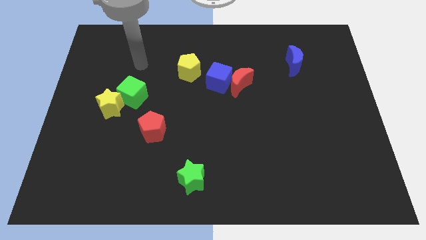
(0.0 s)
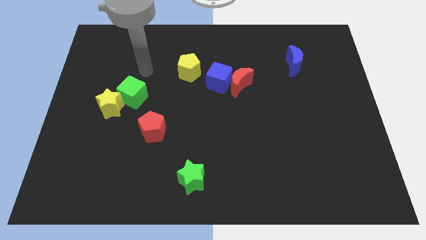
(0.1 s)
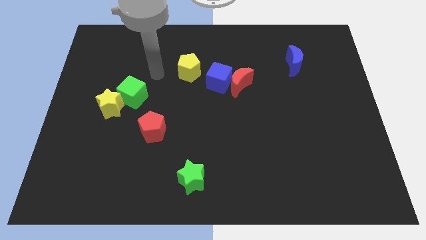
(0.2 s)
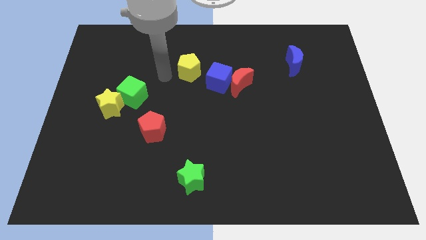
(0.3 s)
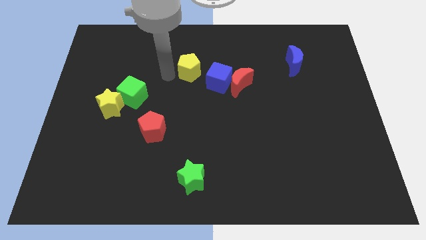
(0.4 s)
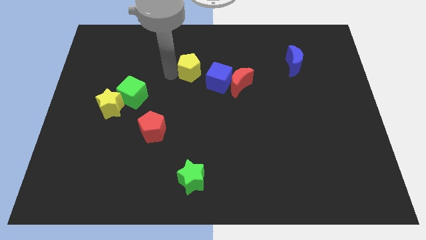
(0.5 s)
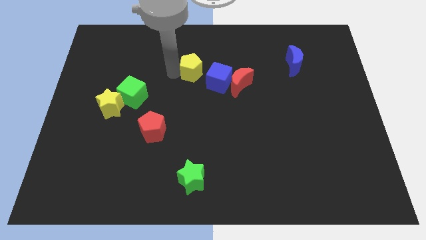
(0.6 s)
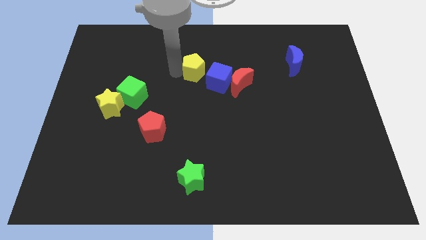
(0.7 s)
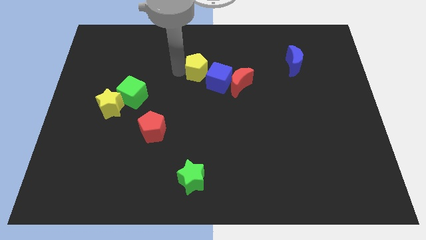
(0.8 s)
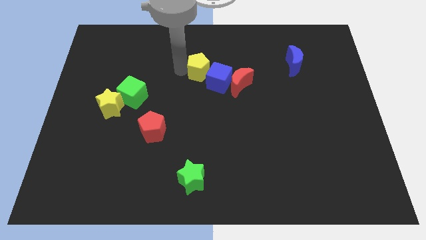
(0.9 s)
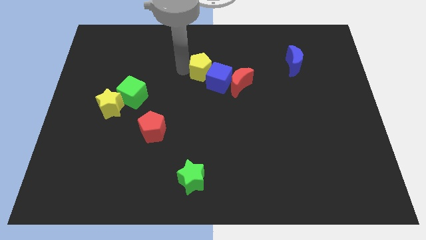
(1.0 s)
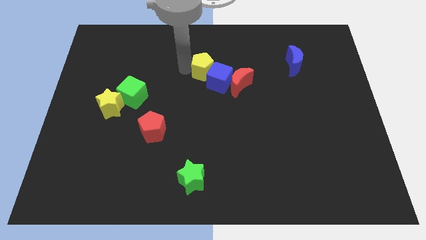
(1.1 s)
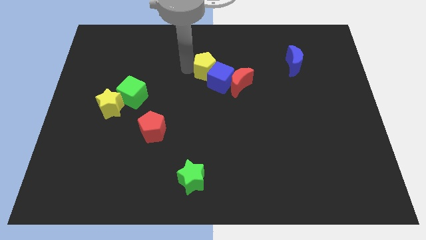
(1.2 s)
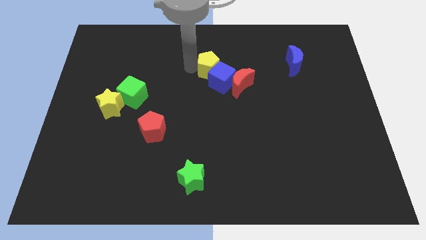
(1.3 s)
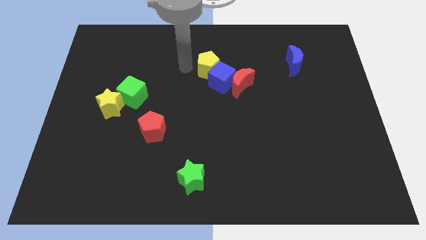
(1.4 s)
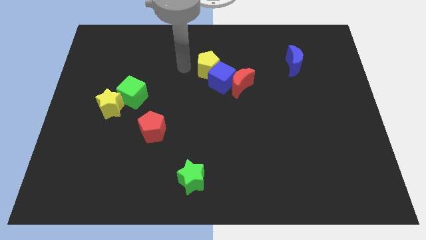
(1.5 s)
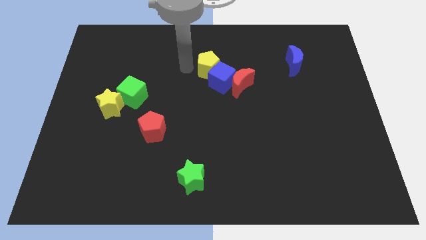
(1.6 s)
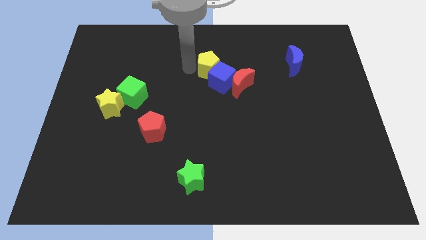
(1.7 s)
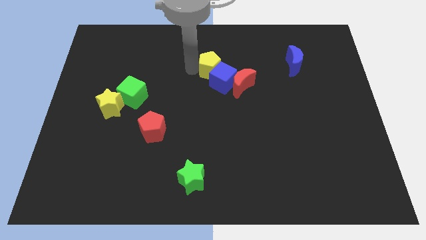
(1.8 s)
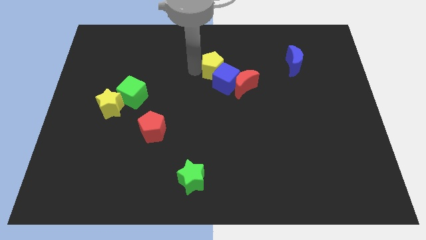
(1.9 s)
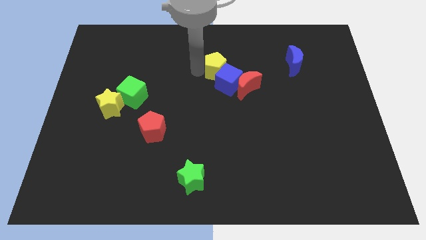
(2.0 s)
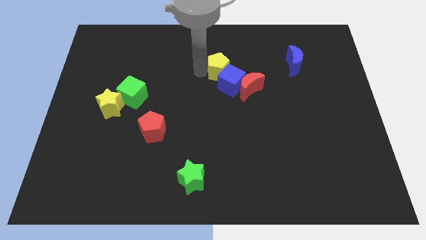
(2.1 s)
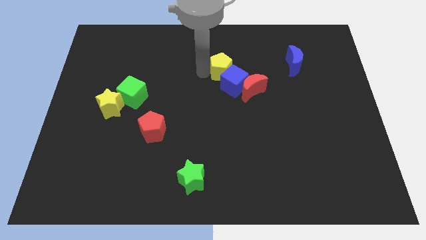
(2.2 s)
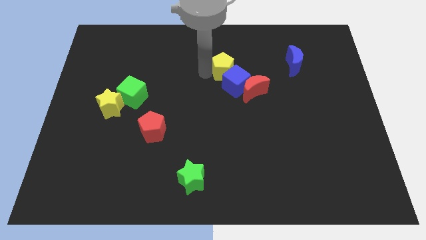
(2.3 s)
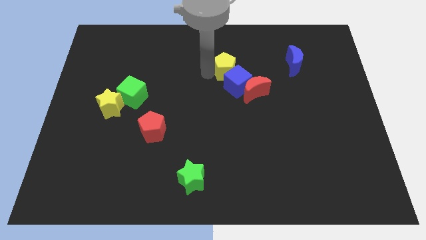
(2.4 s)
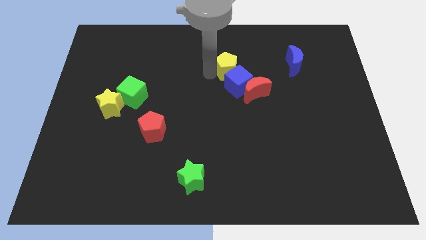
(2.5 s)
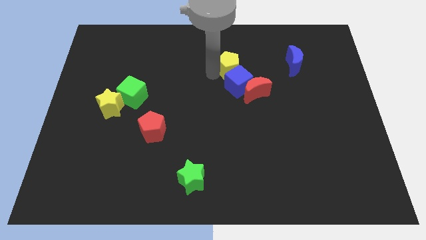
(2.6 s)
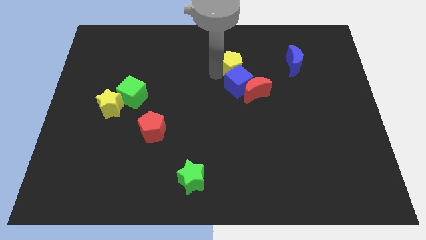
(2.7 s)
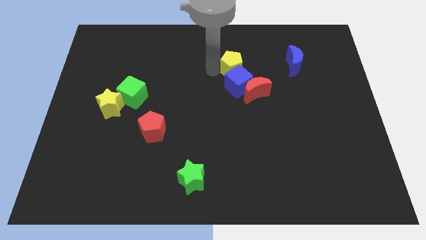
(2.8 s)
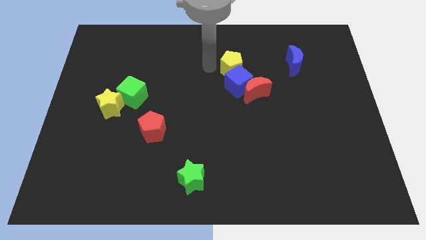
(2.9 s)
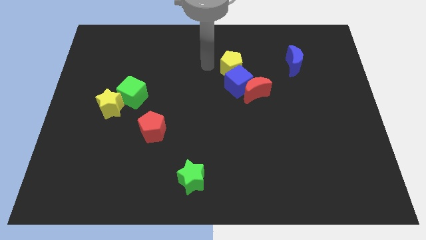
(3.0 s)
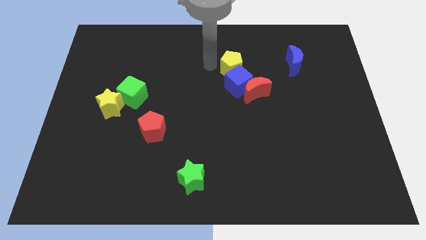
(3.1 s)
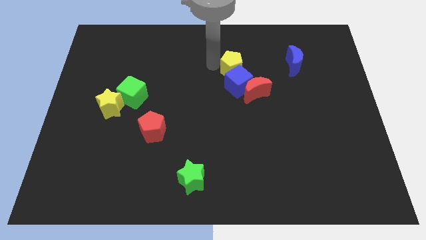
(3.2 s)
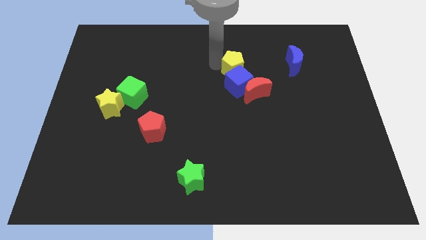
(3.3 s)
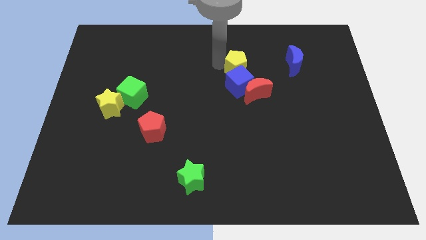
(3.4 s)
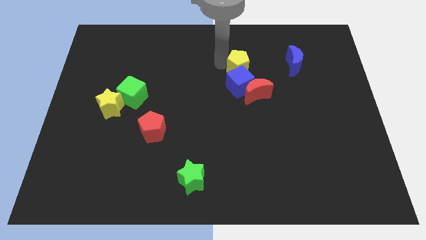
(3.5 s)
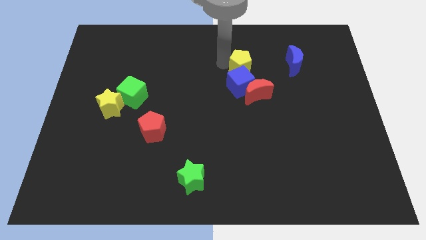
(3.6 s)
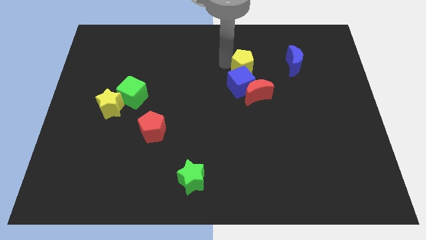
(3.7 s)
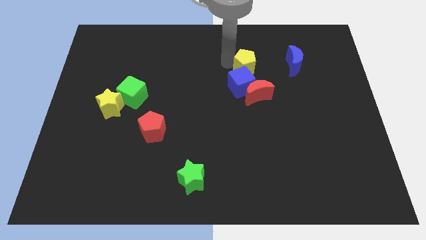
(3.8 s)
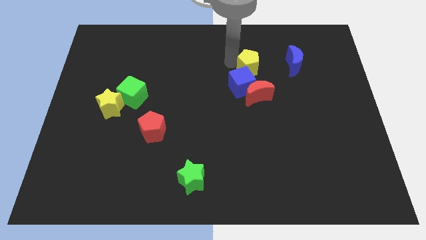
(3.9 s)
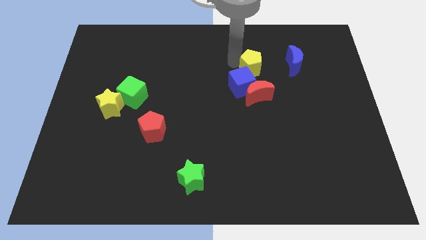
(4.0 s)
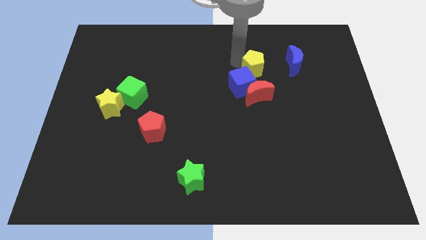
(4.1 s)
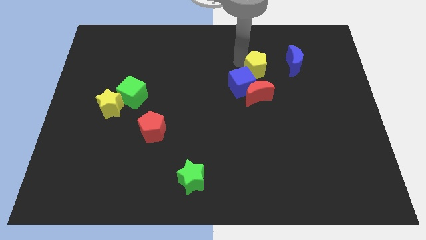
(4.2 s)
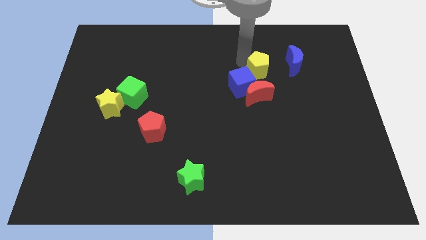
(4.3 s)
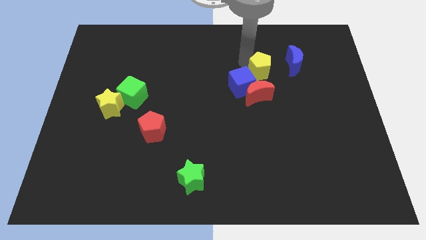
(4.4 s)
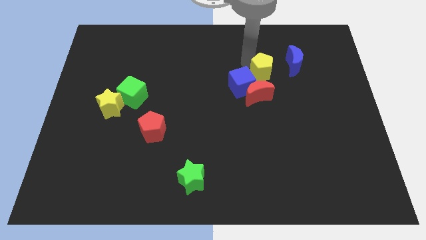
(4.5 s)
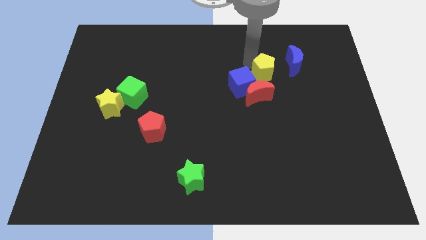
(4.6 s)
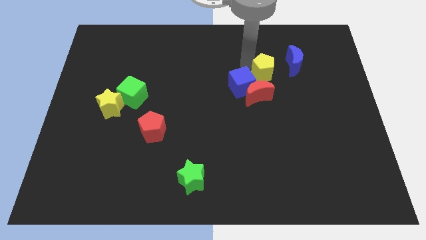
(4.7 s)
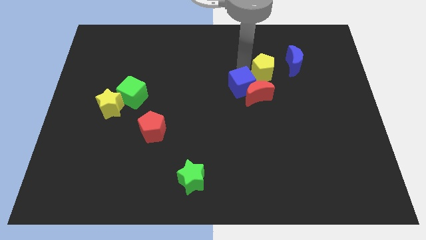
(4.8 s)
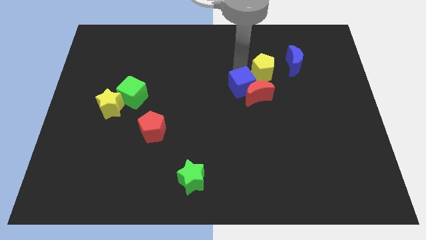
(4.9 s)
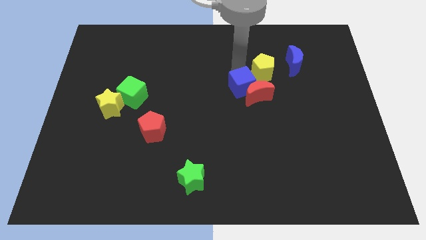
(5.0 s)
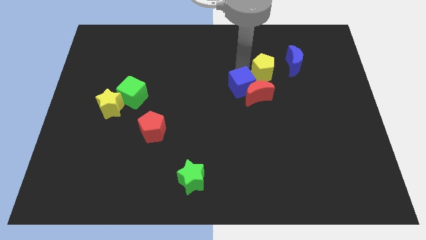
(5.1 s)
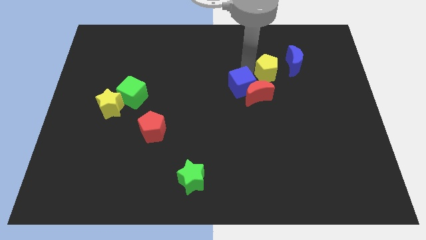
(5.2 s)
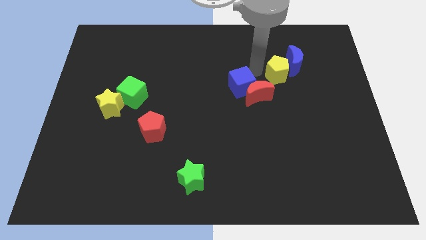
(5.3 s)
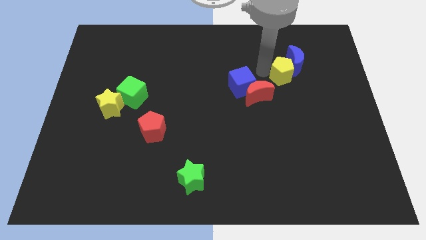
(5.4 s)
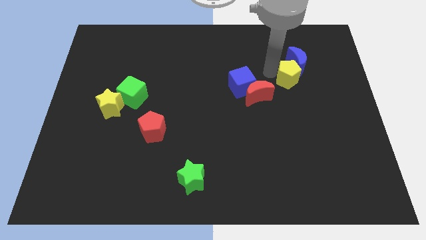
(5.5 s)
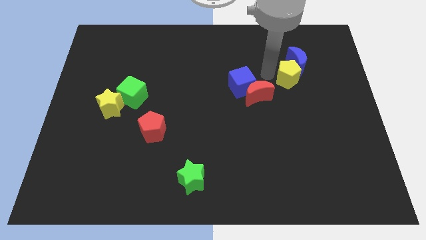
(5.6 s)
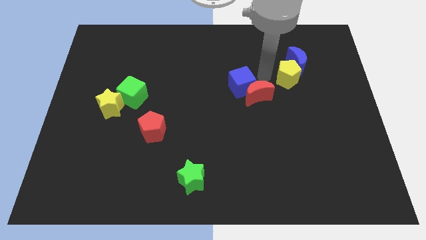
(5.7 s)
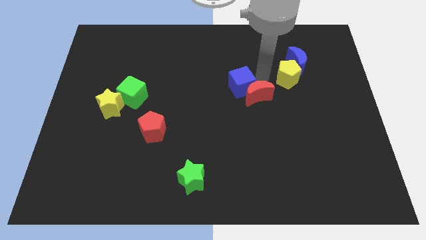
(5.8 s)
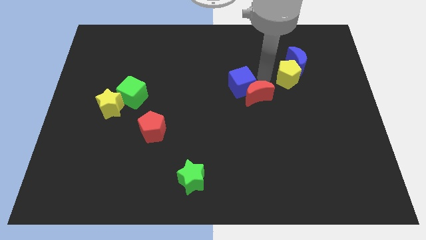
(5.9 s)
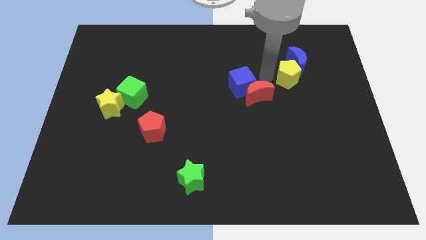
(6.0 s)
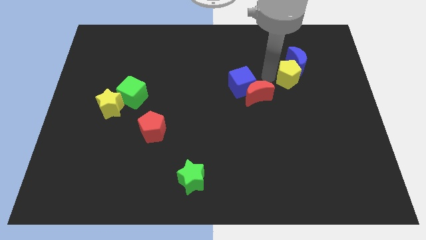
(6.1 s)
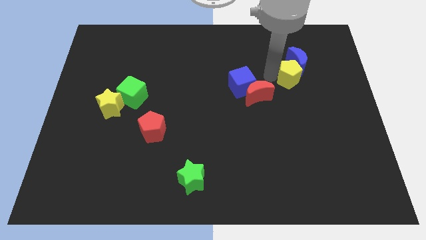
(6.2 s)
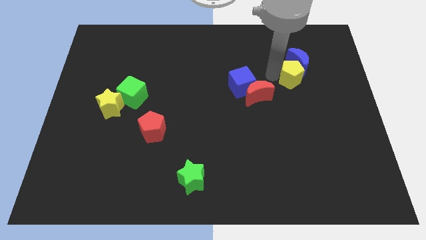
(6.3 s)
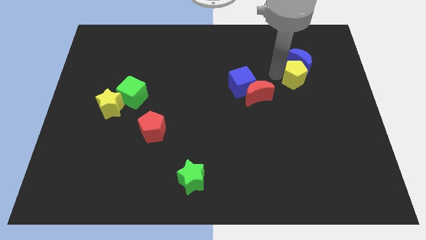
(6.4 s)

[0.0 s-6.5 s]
slide the yellow pentagon to the bottom right of the blue moon
